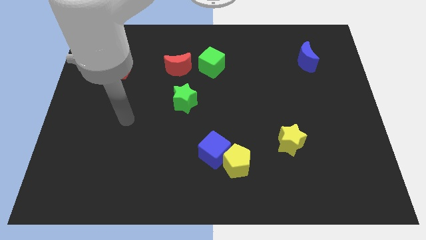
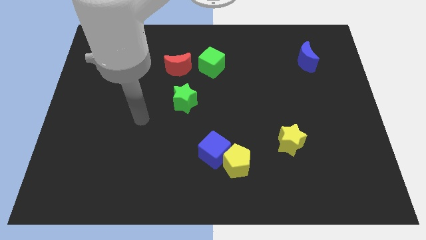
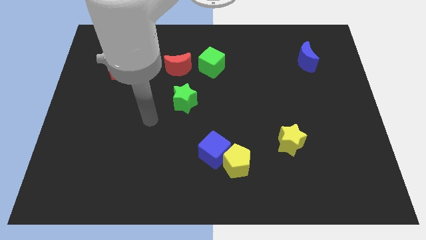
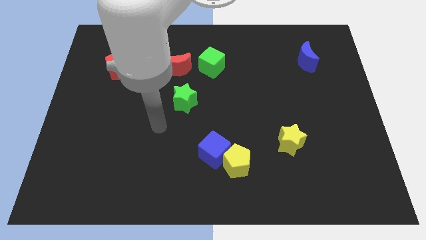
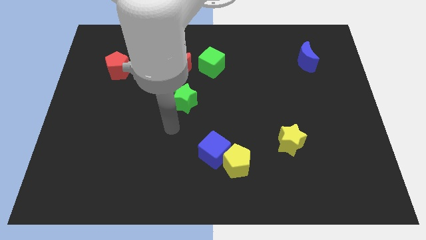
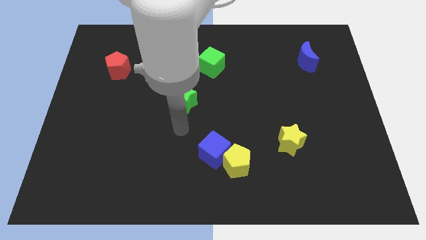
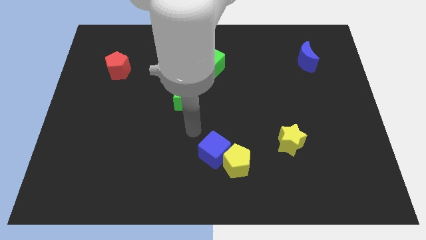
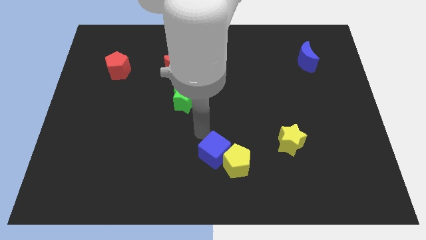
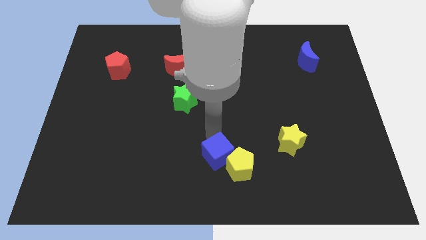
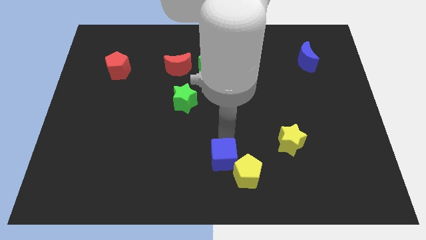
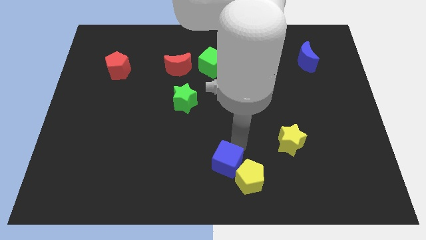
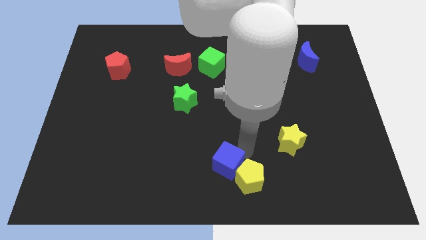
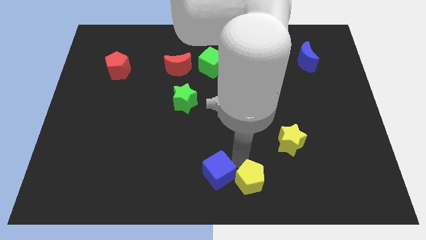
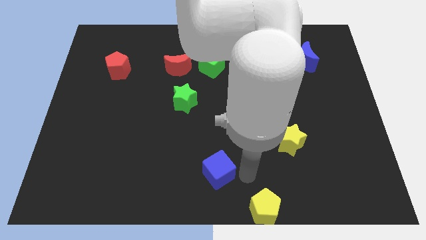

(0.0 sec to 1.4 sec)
move the blue cube away from the yellow pentagon

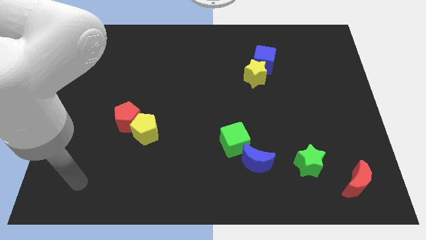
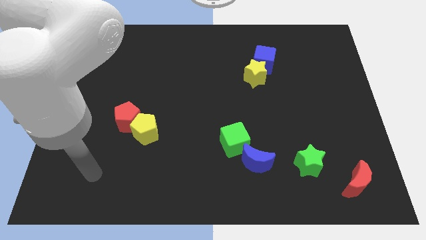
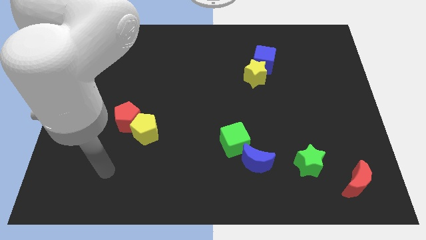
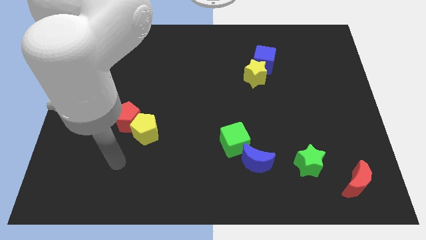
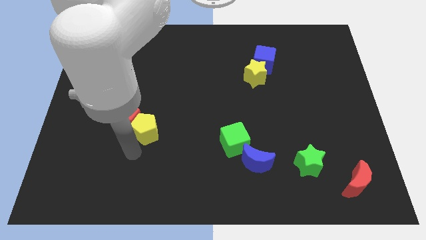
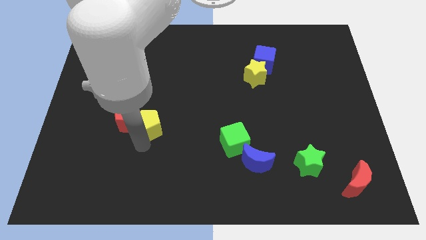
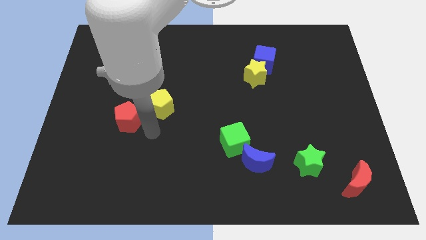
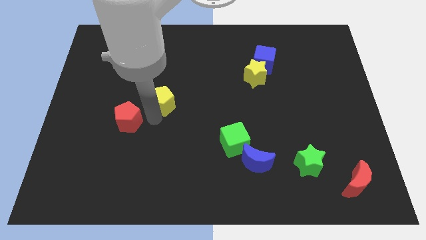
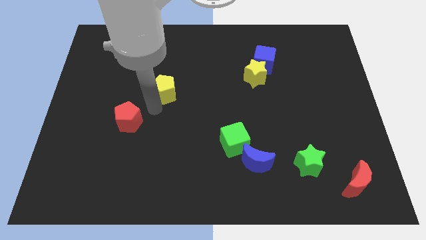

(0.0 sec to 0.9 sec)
pull the red pentagon apart from the yellow pentagon

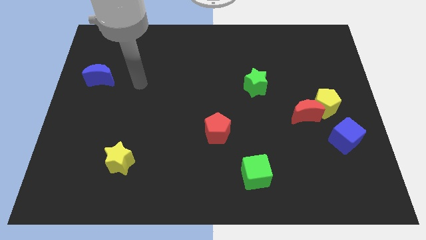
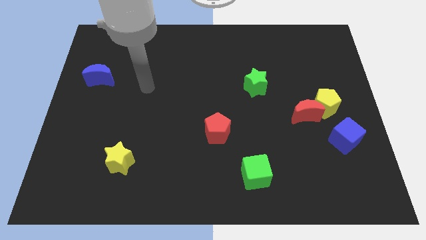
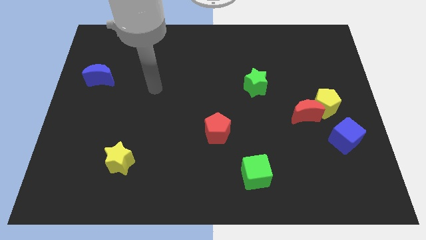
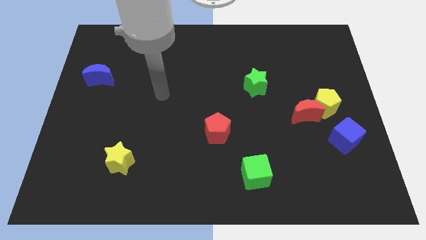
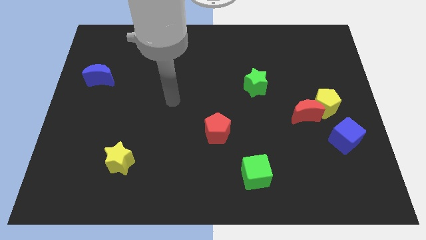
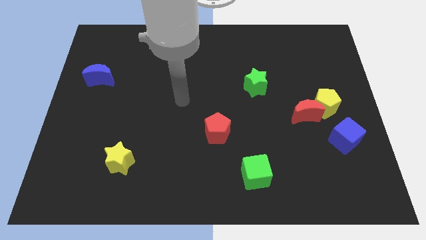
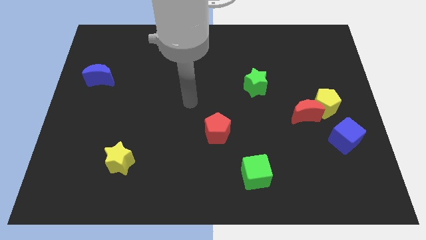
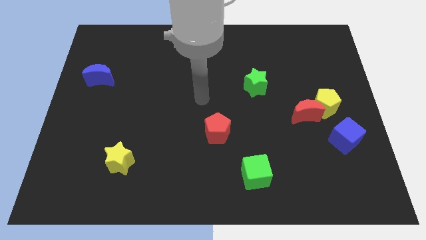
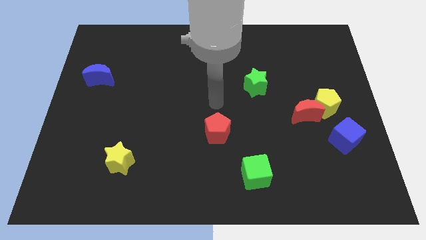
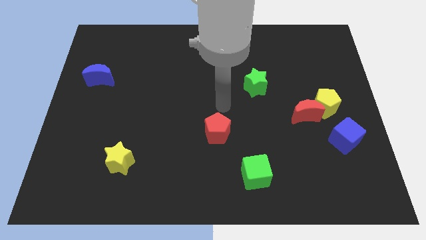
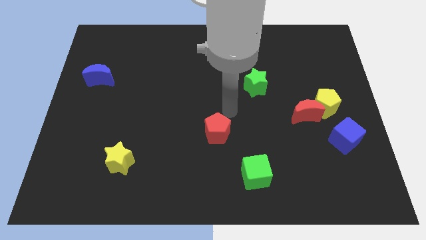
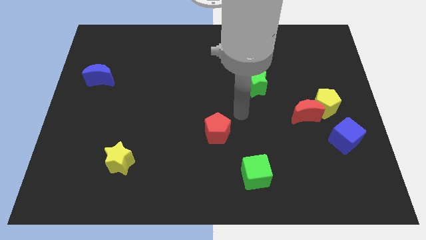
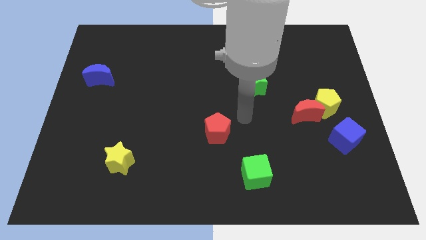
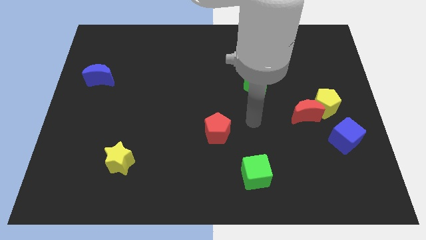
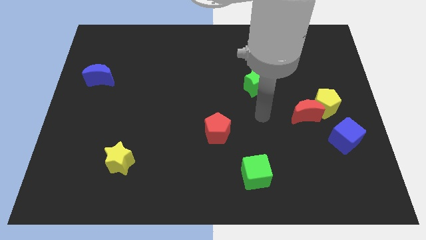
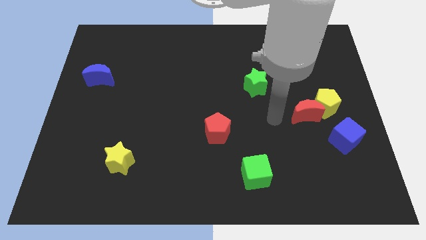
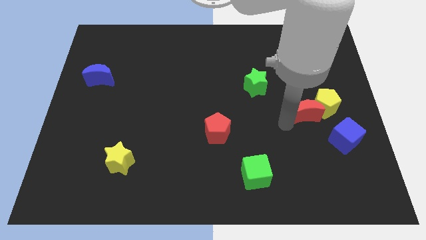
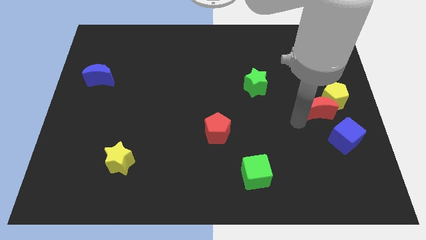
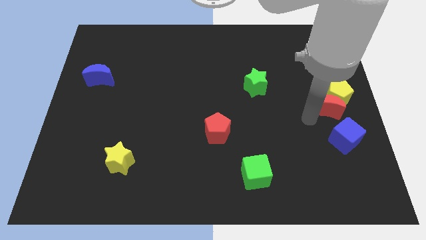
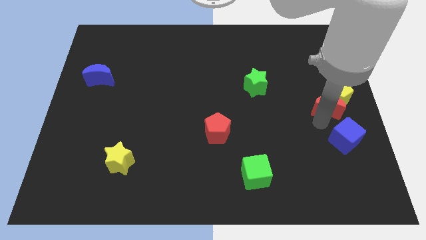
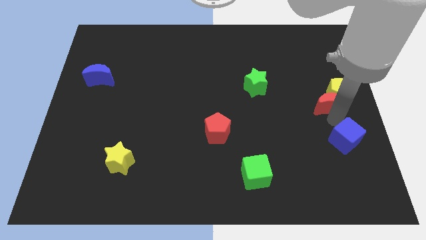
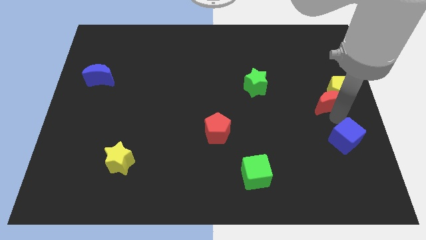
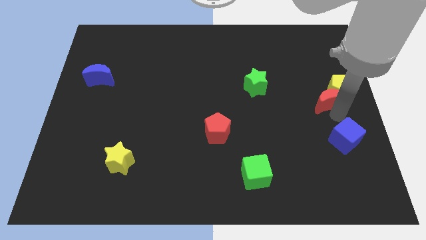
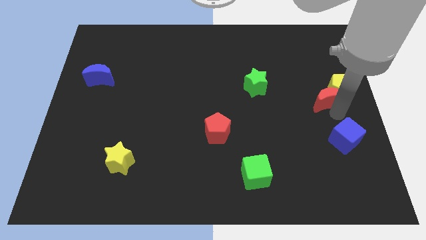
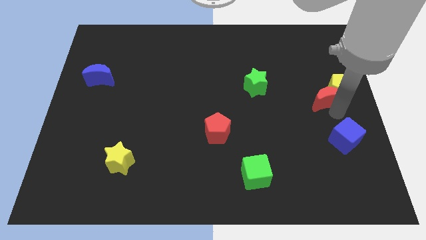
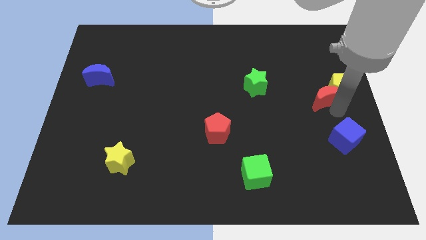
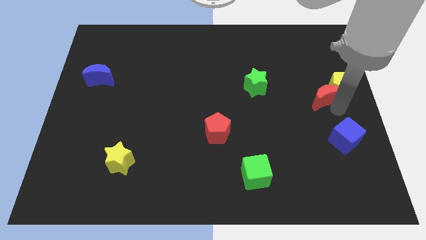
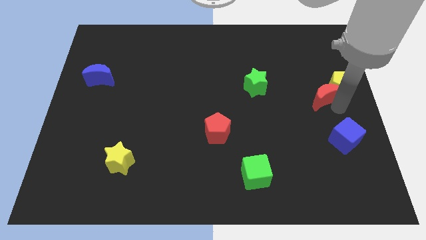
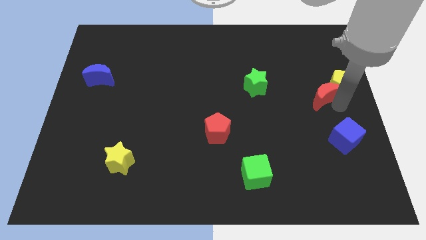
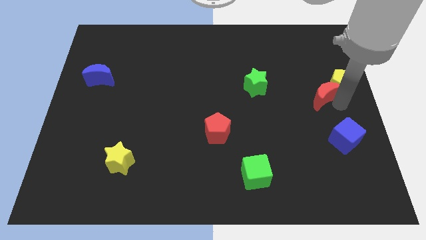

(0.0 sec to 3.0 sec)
separate the yellow pentagon from the red moon and blue cube

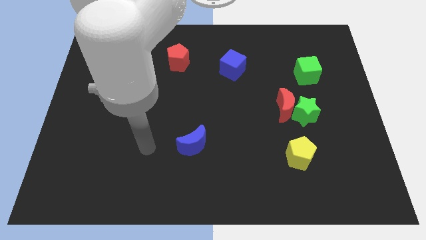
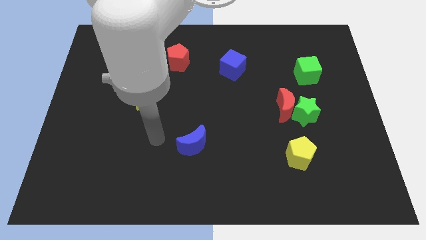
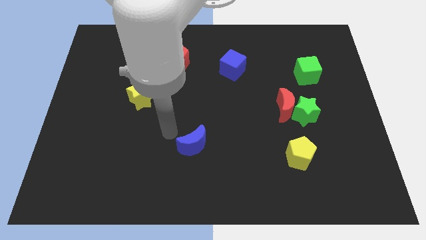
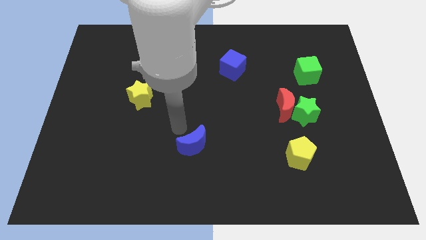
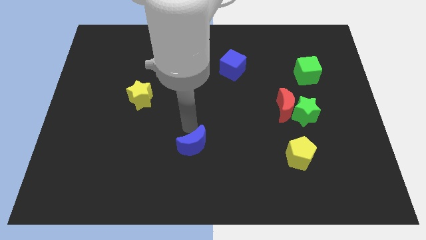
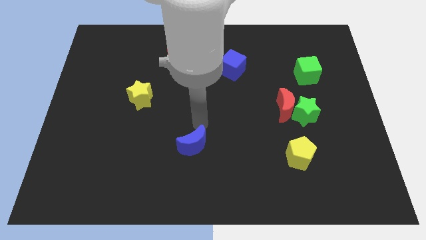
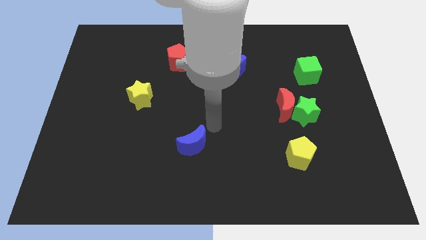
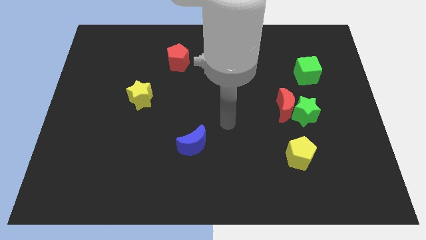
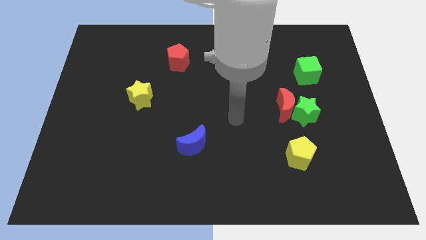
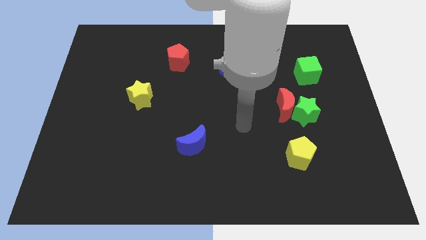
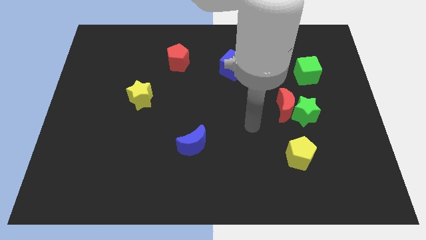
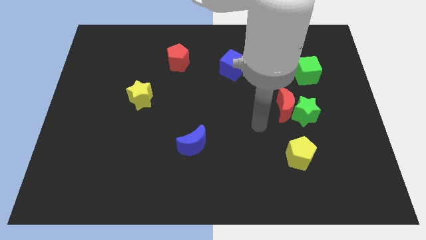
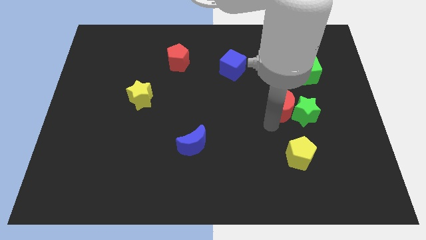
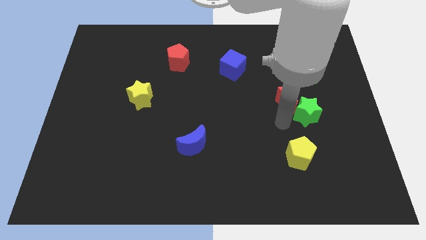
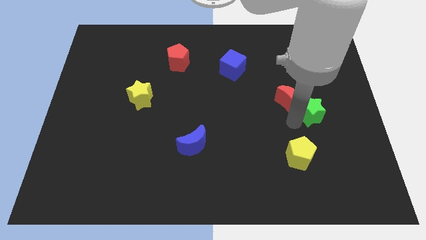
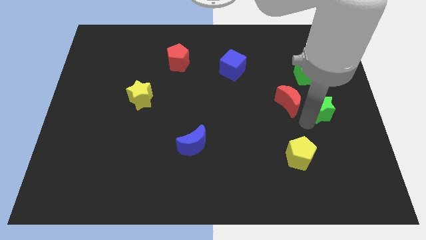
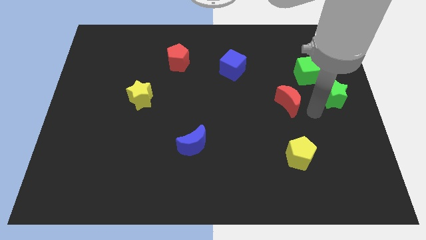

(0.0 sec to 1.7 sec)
pull the red moon apart from the green star

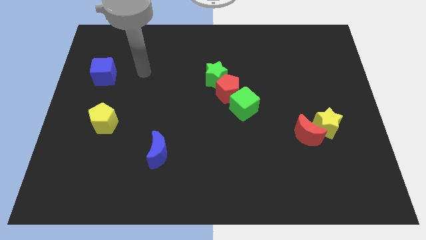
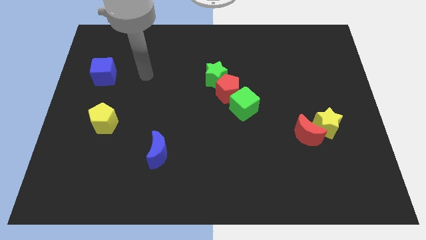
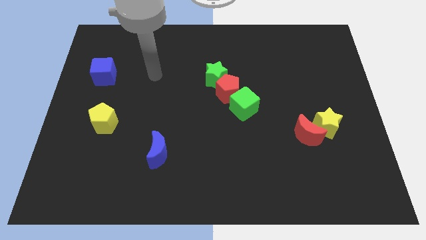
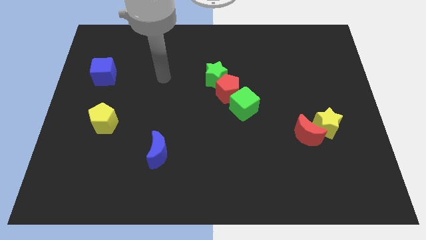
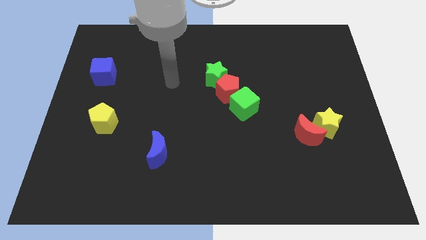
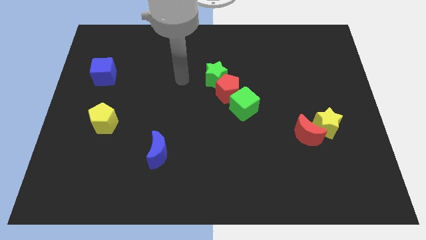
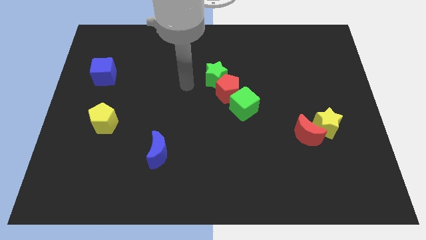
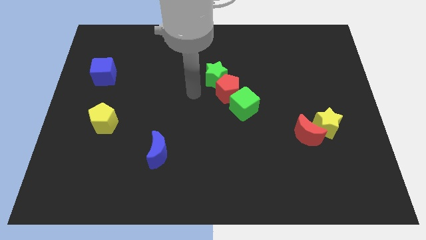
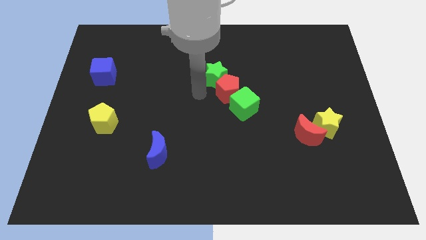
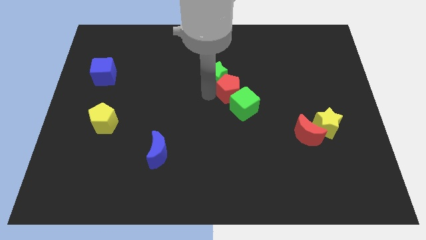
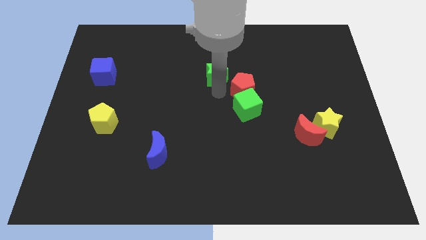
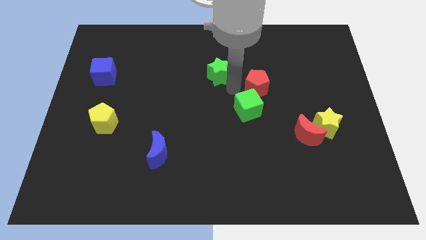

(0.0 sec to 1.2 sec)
pull the green star apart from the red pentagon

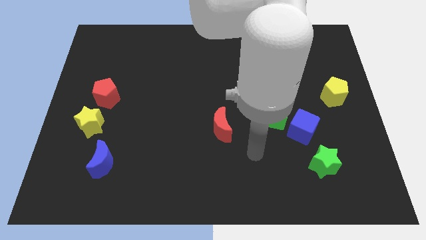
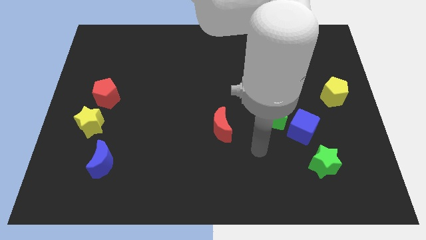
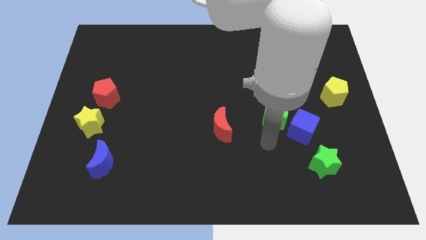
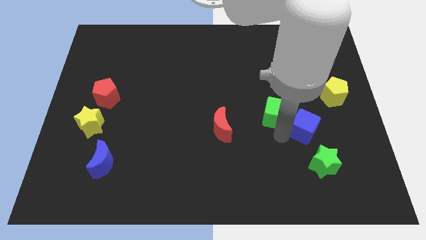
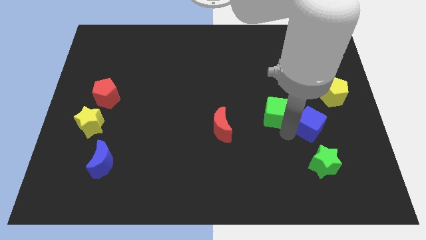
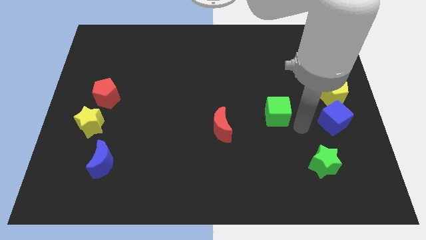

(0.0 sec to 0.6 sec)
move the green cube away from the blue cube

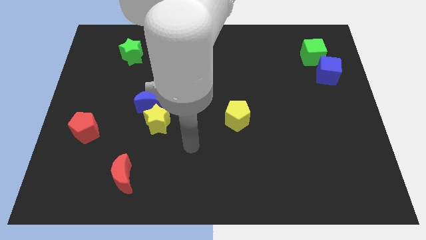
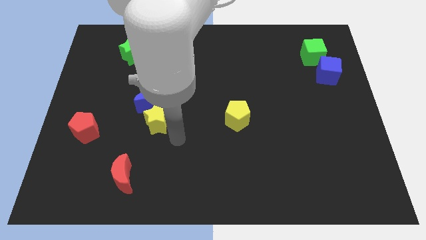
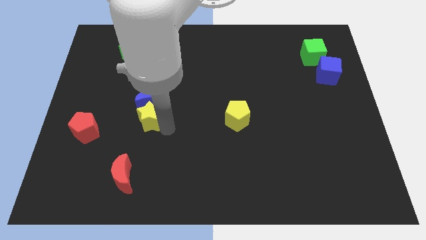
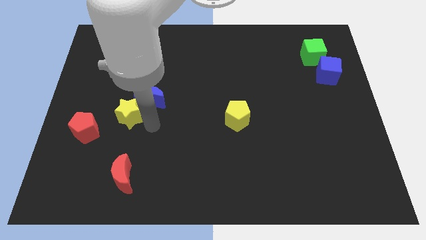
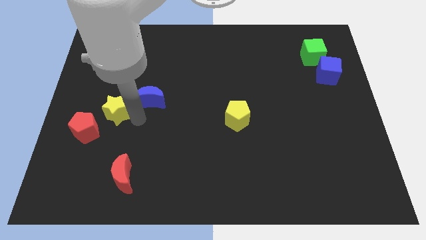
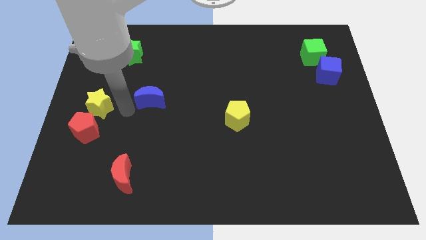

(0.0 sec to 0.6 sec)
pull the blue moon apart from the yellow star
